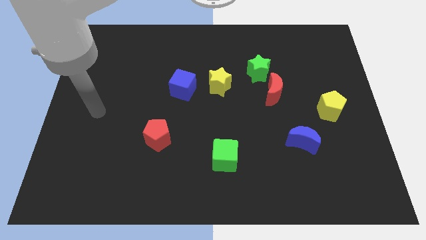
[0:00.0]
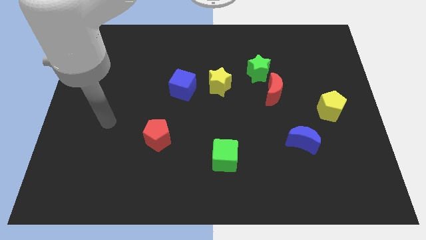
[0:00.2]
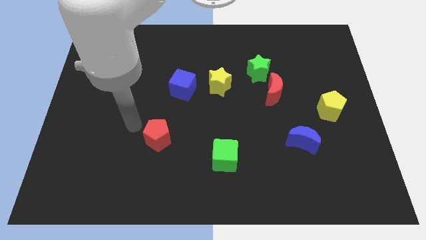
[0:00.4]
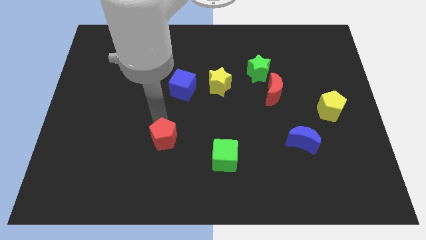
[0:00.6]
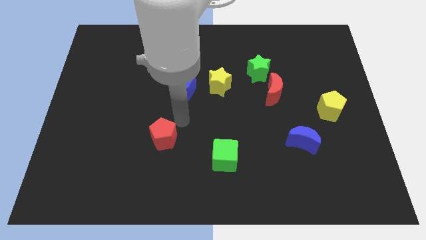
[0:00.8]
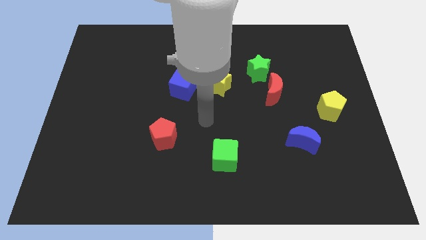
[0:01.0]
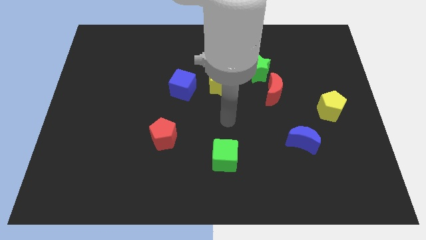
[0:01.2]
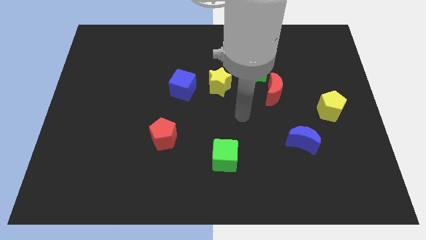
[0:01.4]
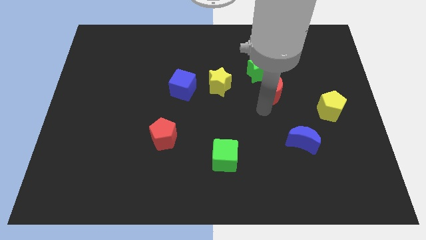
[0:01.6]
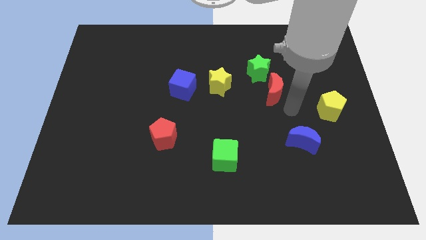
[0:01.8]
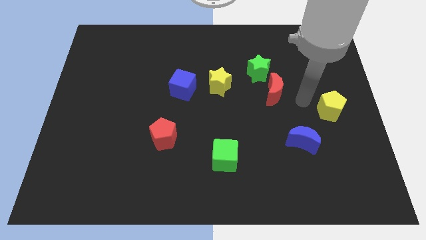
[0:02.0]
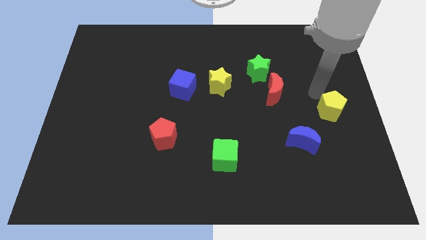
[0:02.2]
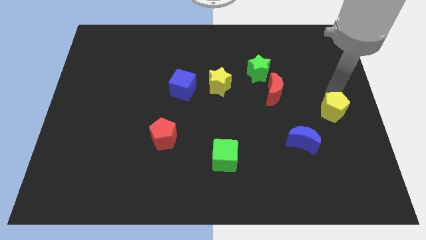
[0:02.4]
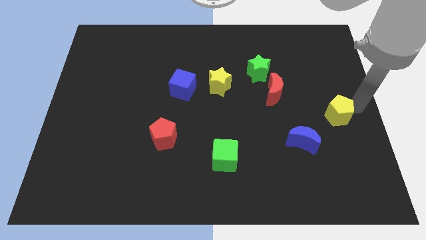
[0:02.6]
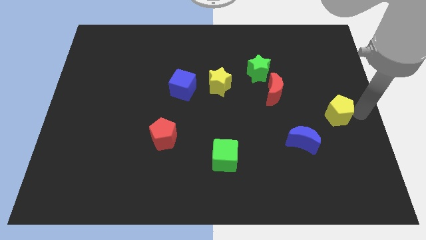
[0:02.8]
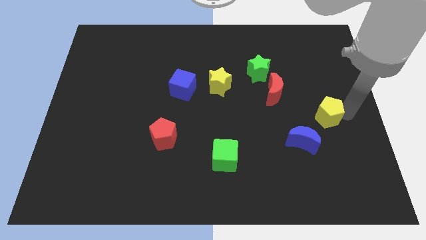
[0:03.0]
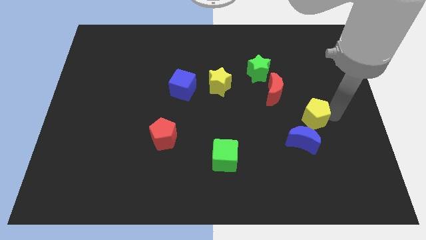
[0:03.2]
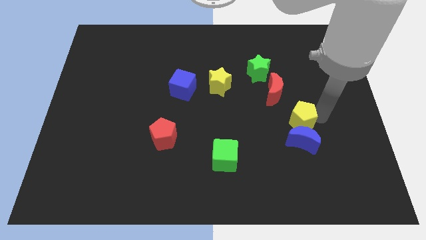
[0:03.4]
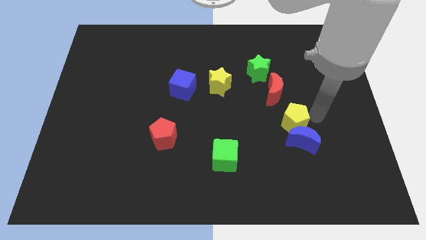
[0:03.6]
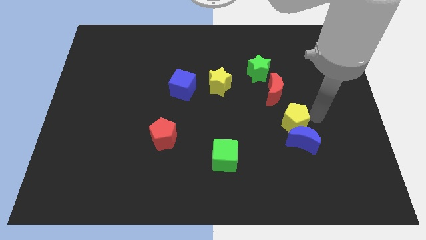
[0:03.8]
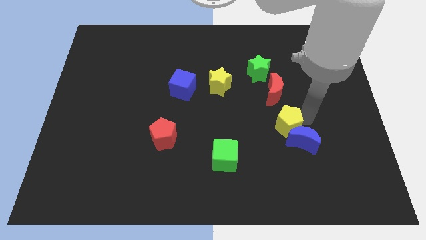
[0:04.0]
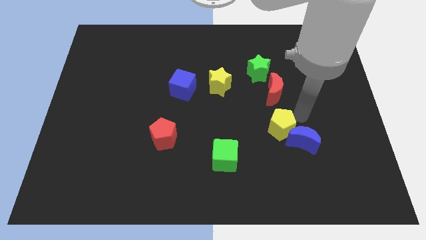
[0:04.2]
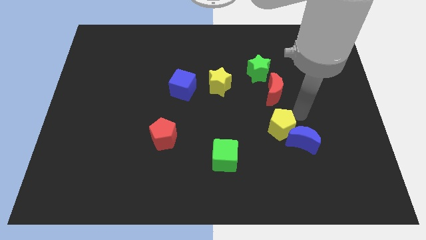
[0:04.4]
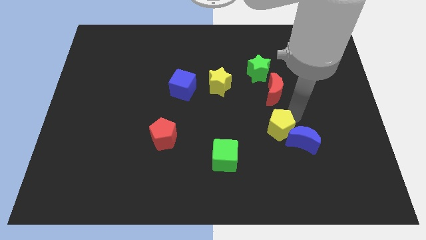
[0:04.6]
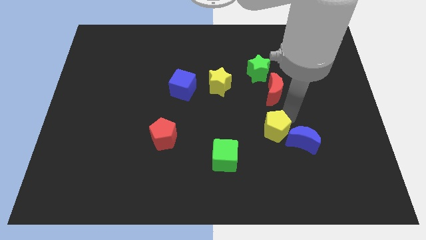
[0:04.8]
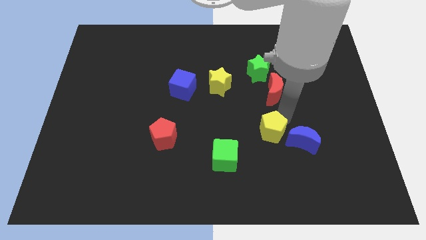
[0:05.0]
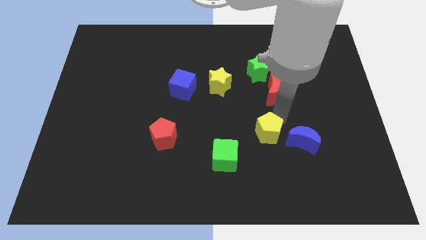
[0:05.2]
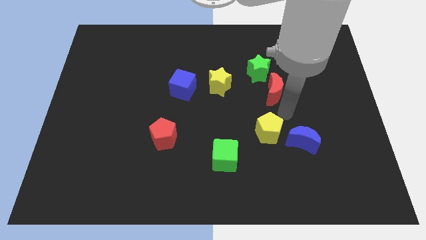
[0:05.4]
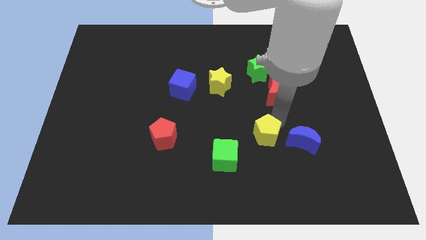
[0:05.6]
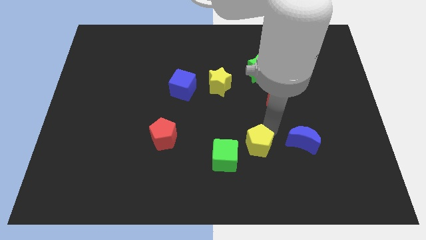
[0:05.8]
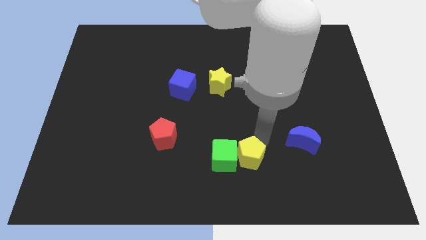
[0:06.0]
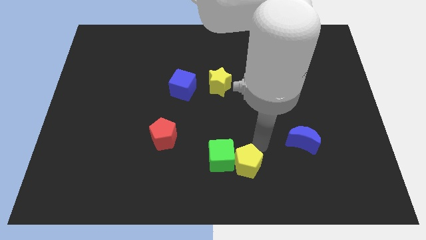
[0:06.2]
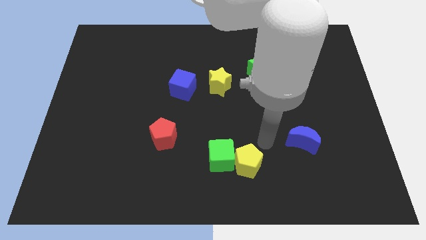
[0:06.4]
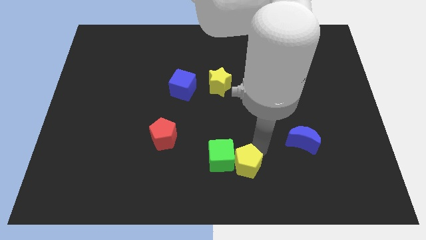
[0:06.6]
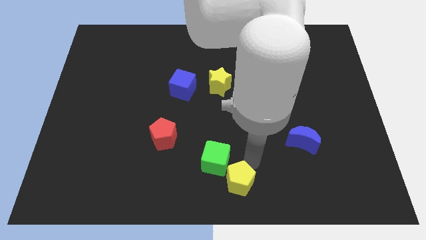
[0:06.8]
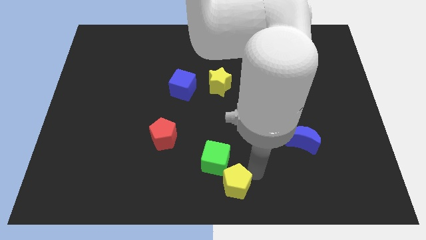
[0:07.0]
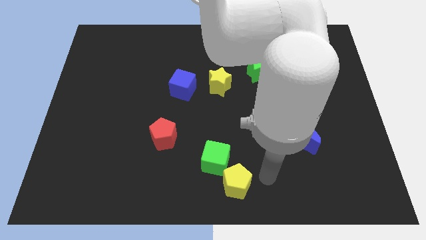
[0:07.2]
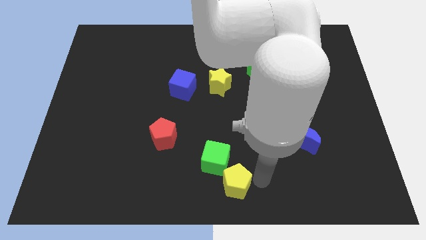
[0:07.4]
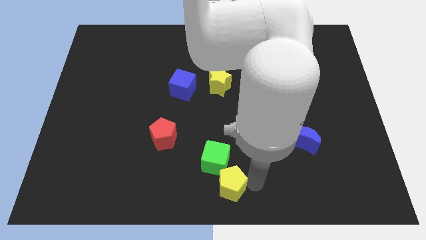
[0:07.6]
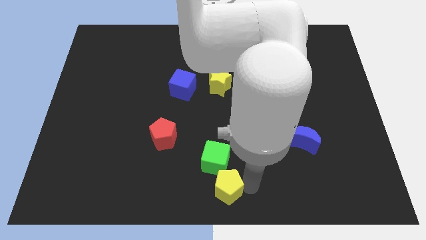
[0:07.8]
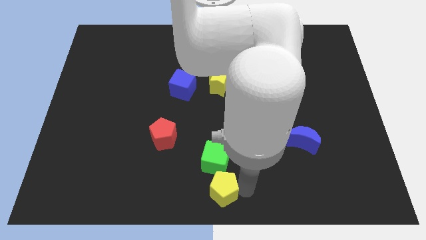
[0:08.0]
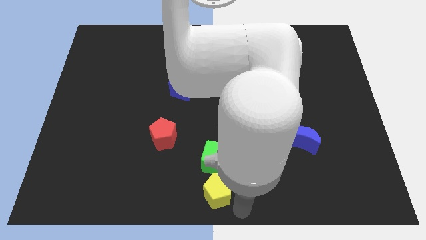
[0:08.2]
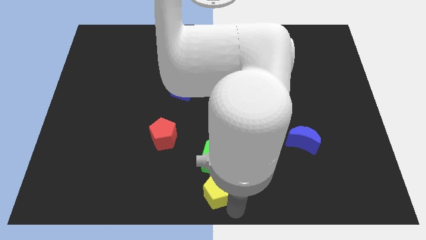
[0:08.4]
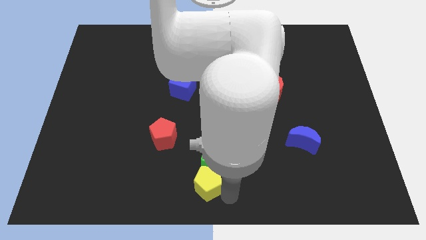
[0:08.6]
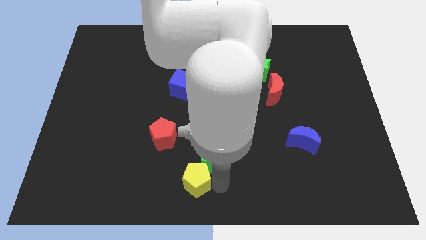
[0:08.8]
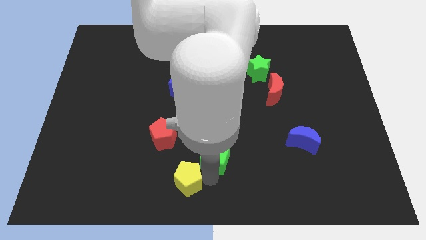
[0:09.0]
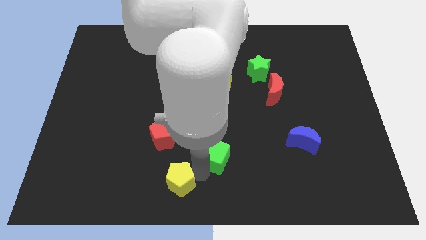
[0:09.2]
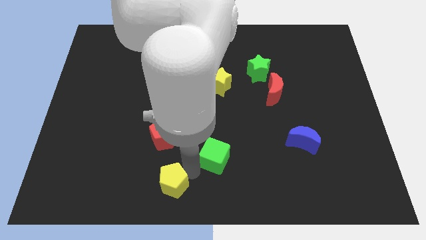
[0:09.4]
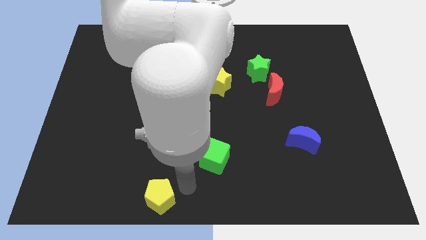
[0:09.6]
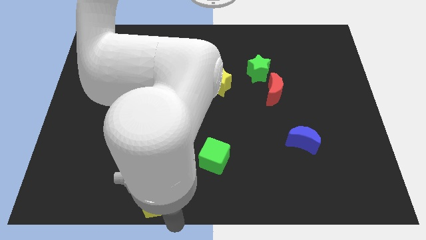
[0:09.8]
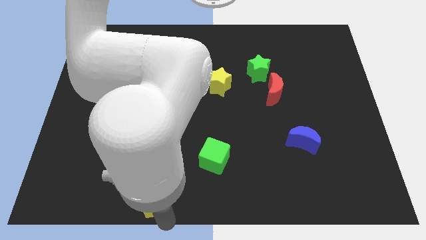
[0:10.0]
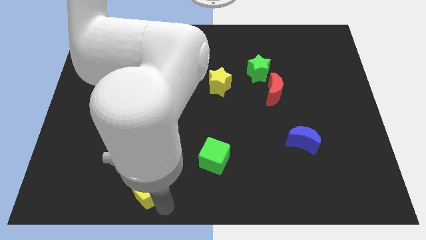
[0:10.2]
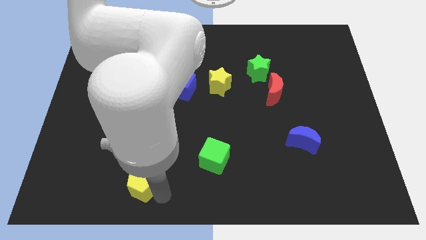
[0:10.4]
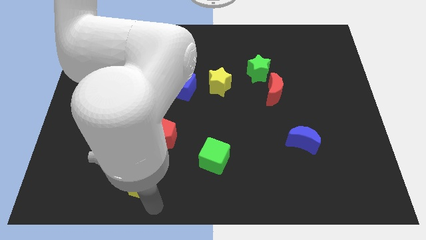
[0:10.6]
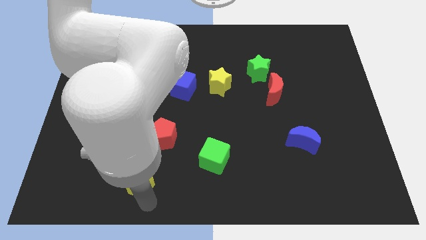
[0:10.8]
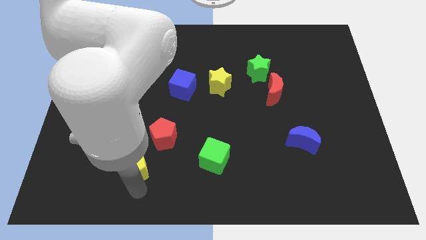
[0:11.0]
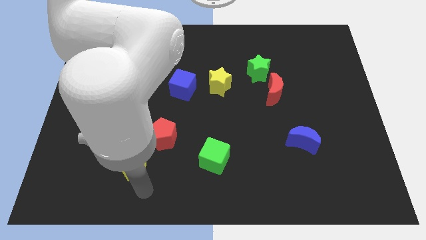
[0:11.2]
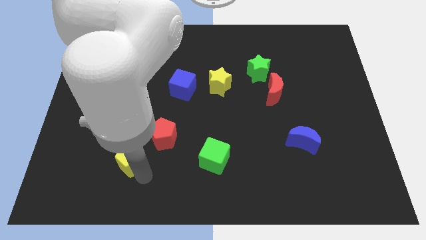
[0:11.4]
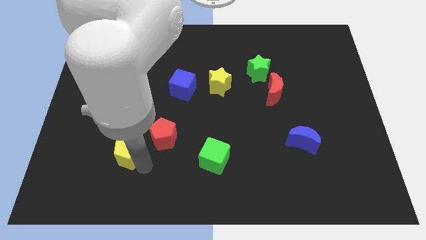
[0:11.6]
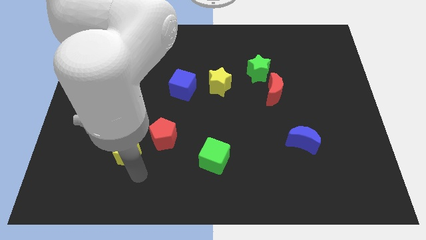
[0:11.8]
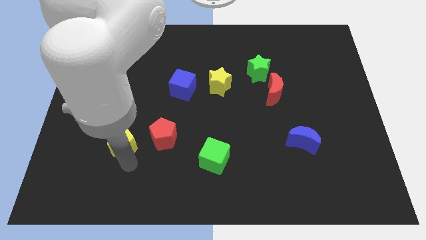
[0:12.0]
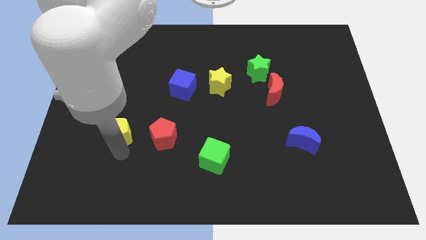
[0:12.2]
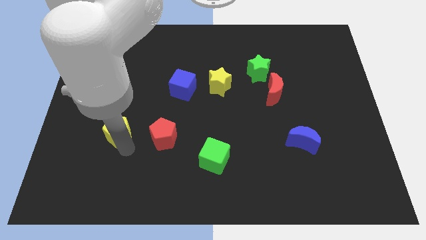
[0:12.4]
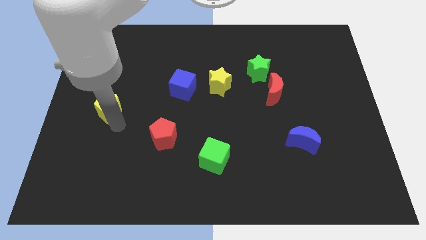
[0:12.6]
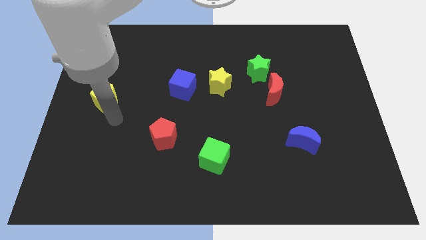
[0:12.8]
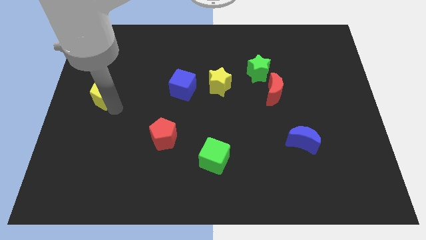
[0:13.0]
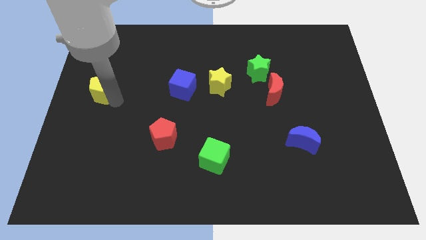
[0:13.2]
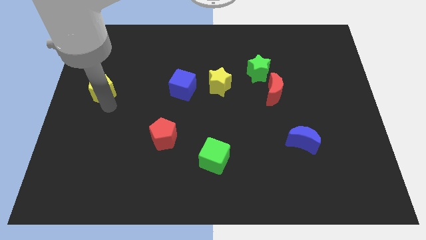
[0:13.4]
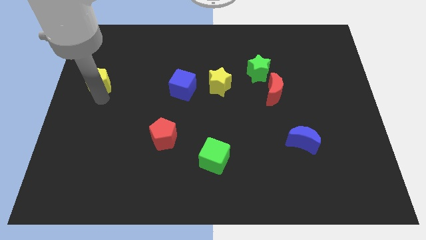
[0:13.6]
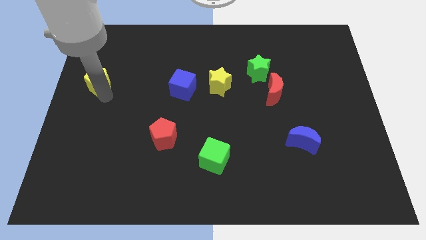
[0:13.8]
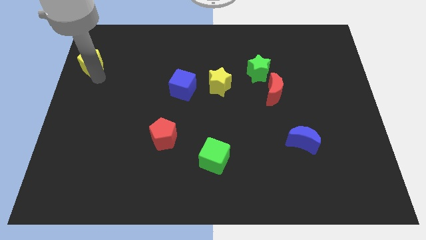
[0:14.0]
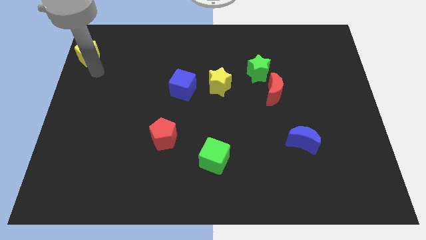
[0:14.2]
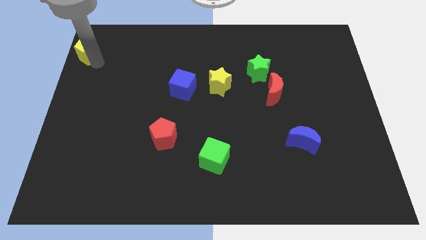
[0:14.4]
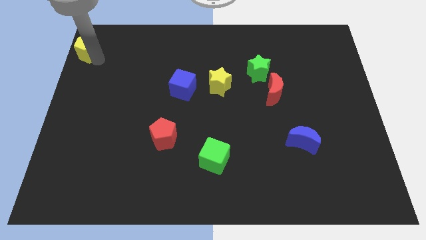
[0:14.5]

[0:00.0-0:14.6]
move the yellow pentagon to the top left
